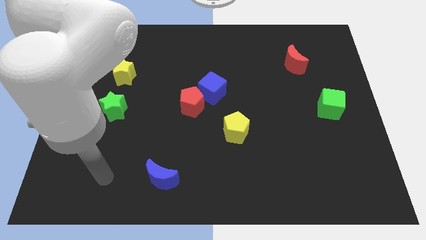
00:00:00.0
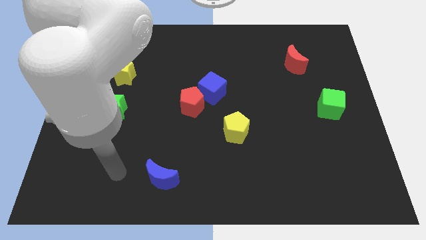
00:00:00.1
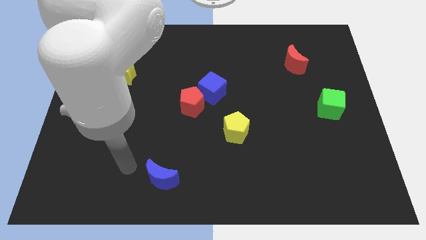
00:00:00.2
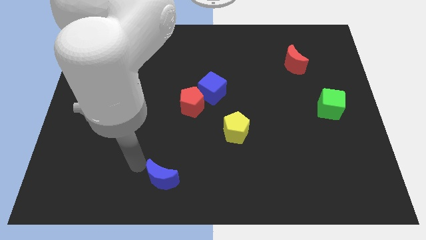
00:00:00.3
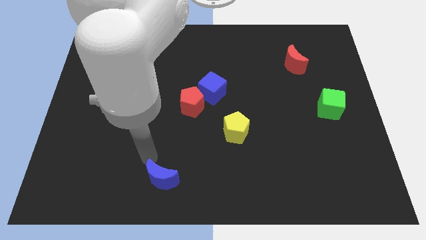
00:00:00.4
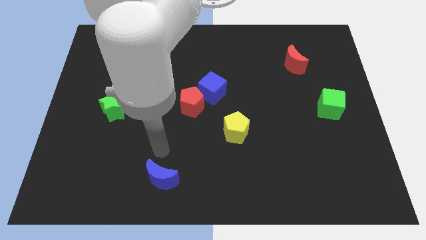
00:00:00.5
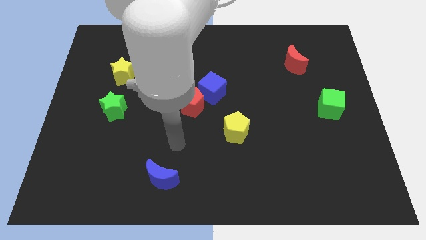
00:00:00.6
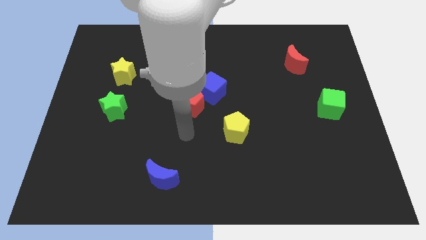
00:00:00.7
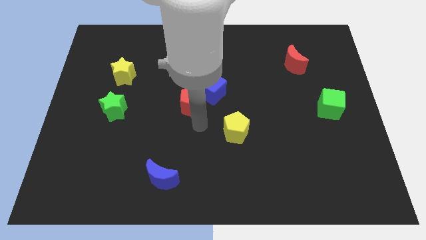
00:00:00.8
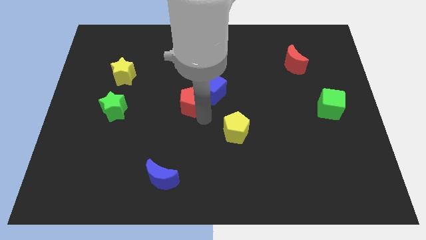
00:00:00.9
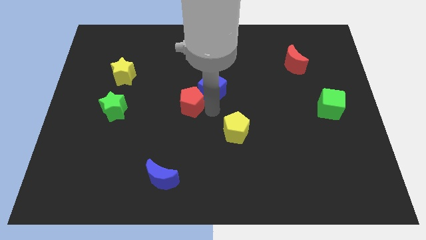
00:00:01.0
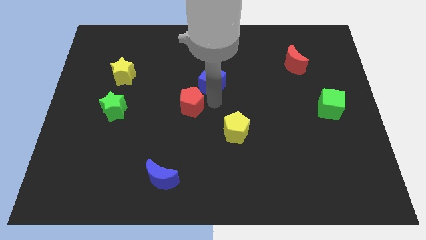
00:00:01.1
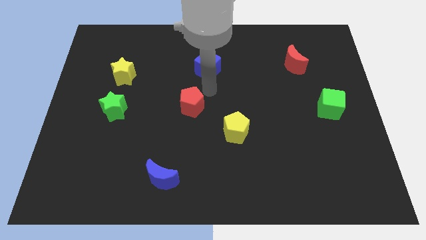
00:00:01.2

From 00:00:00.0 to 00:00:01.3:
move the red pentagon away from the blue cube

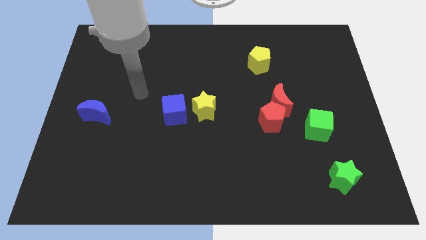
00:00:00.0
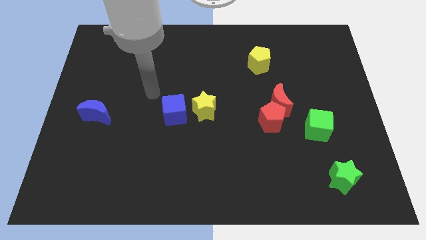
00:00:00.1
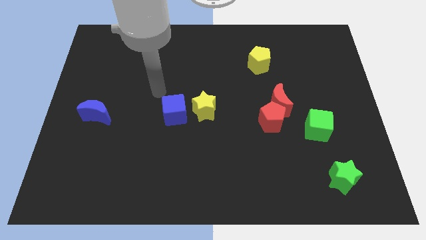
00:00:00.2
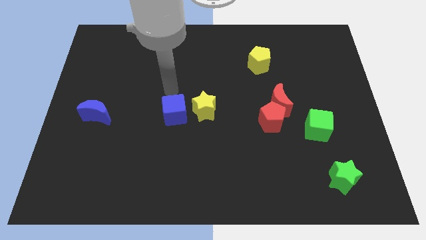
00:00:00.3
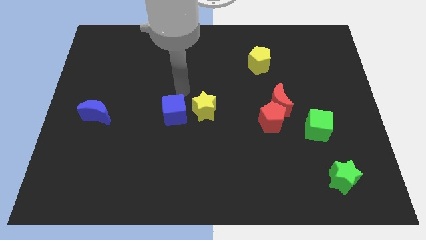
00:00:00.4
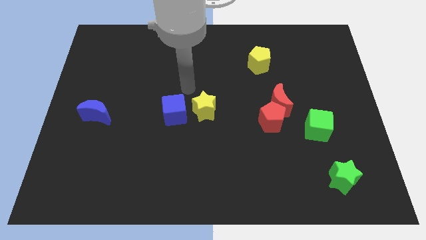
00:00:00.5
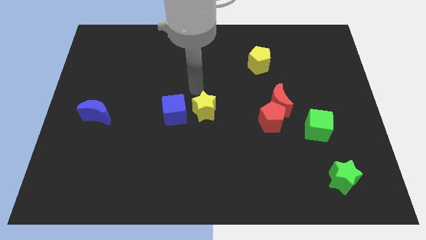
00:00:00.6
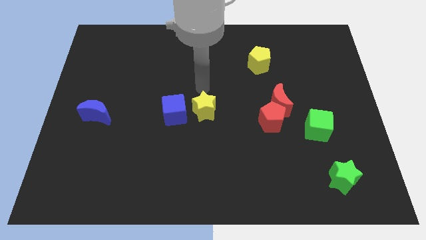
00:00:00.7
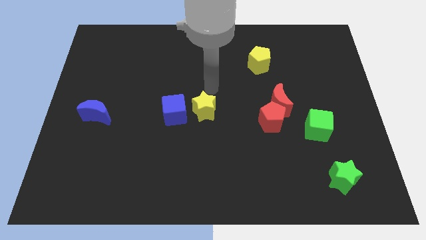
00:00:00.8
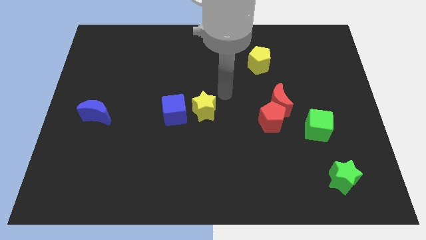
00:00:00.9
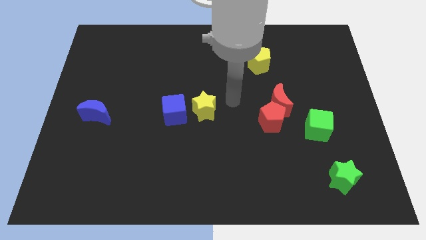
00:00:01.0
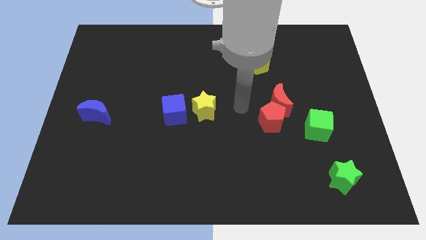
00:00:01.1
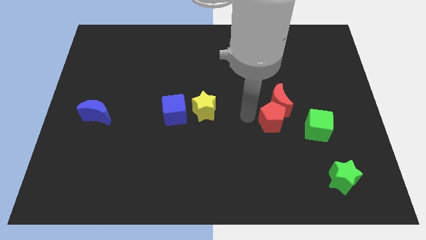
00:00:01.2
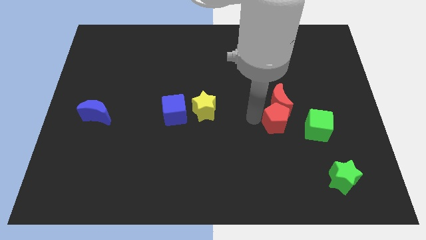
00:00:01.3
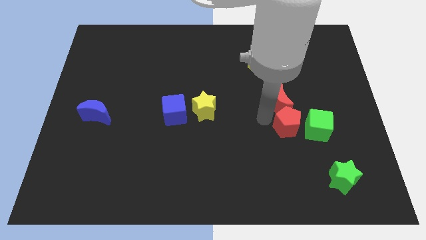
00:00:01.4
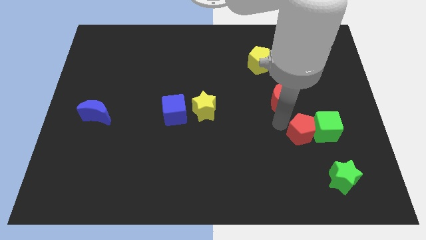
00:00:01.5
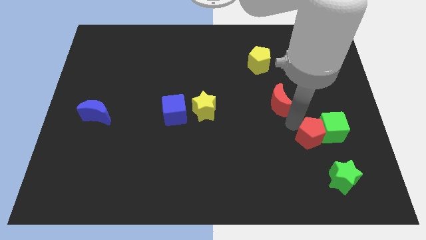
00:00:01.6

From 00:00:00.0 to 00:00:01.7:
pull the red moon apart from the red pentagon

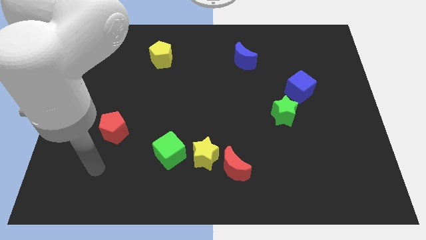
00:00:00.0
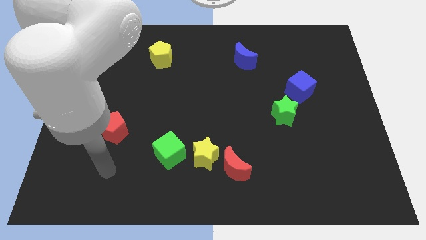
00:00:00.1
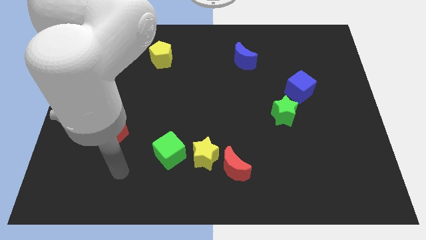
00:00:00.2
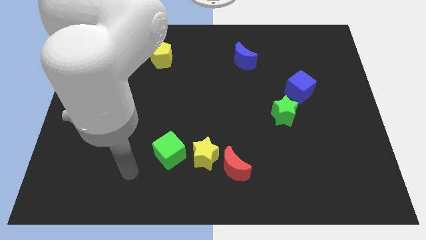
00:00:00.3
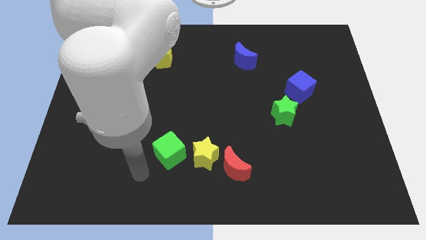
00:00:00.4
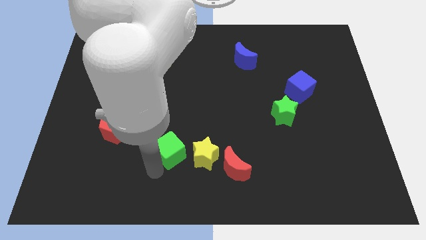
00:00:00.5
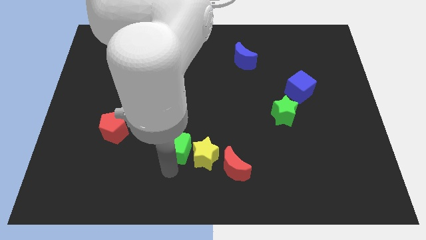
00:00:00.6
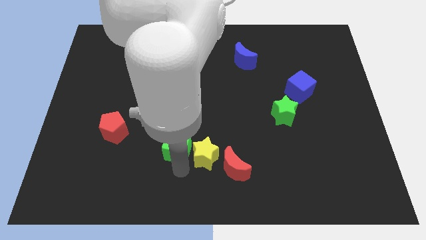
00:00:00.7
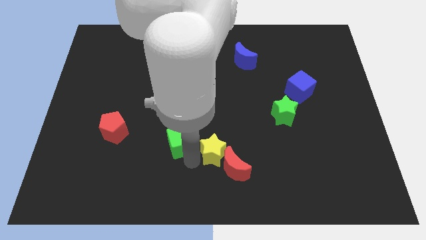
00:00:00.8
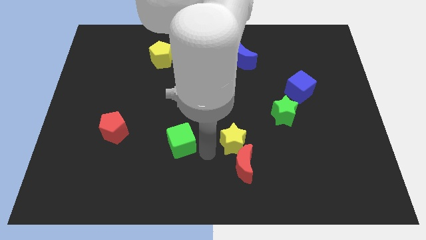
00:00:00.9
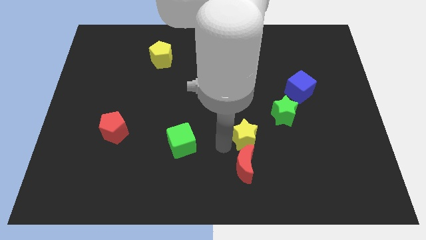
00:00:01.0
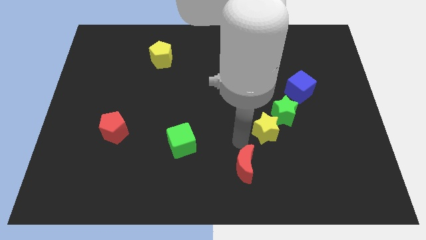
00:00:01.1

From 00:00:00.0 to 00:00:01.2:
pull the red moon apart from the yellow star

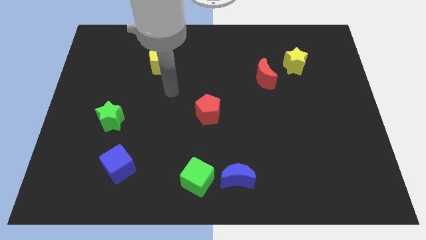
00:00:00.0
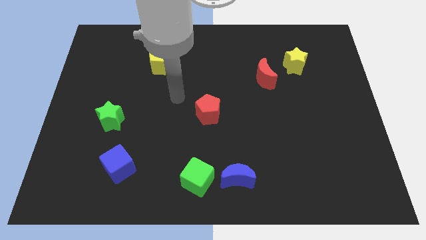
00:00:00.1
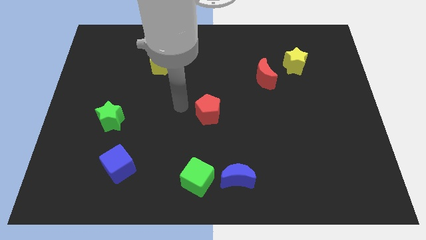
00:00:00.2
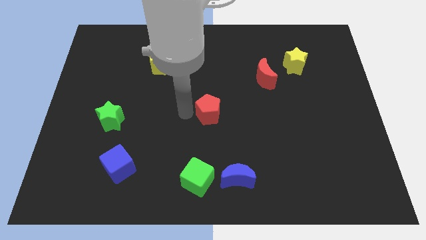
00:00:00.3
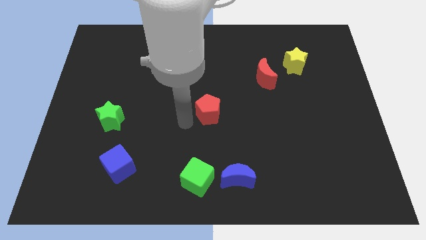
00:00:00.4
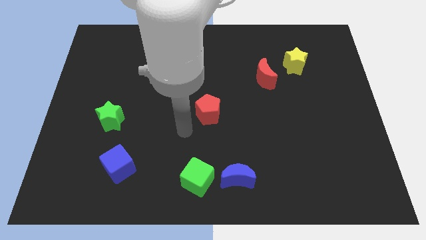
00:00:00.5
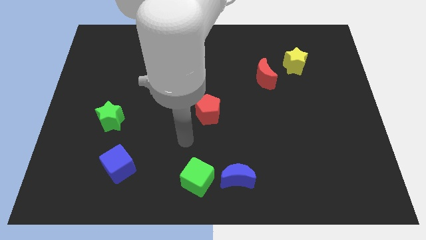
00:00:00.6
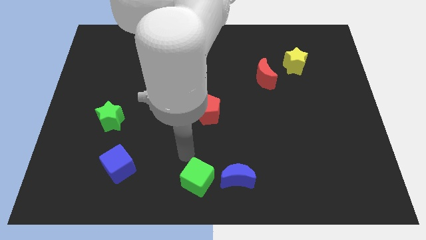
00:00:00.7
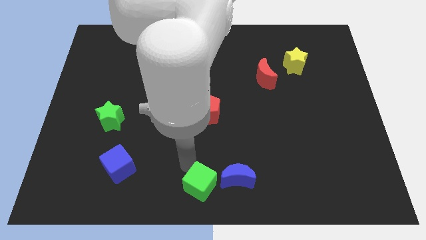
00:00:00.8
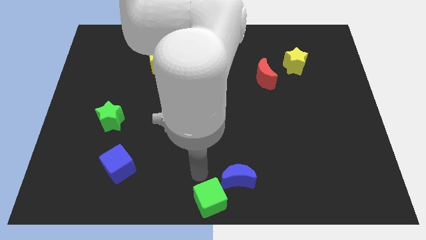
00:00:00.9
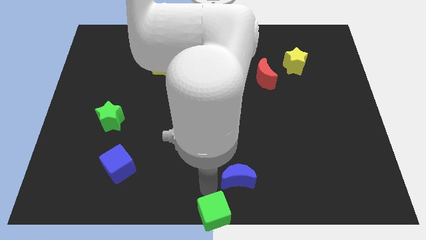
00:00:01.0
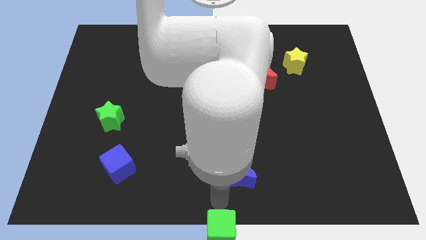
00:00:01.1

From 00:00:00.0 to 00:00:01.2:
move the blue moon away from the green cube

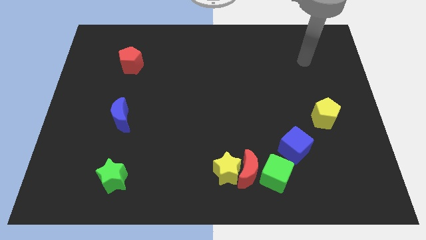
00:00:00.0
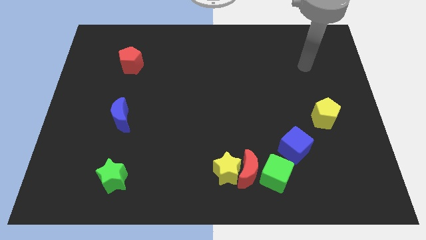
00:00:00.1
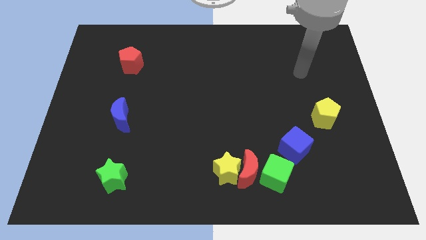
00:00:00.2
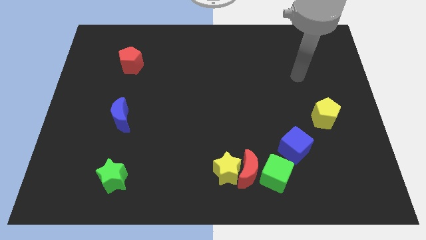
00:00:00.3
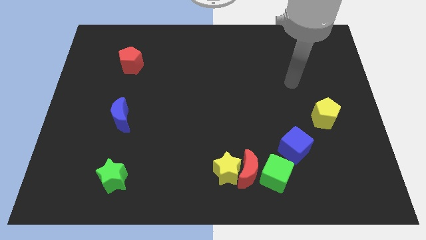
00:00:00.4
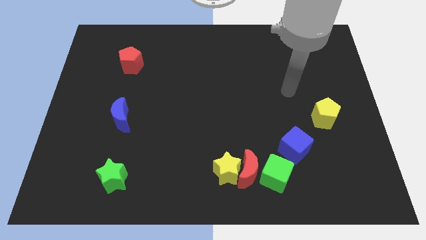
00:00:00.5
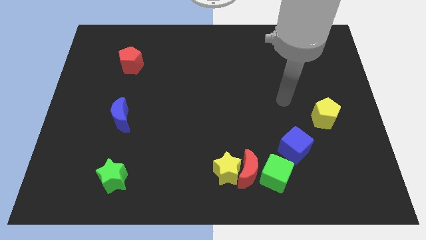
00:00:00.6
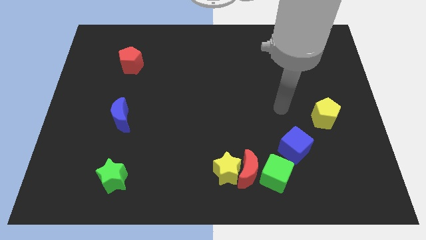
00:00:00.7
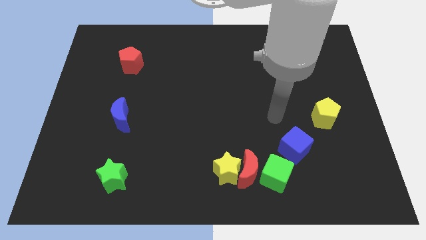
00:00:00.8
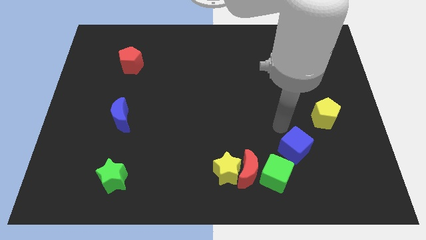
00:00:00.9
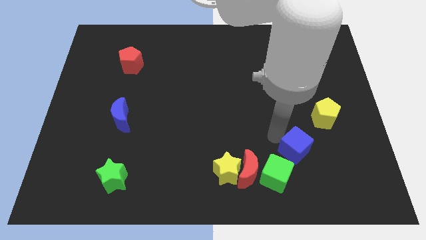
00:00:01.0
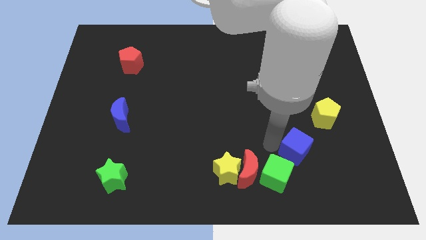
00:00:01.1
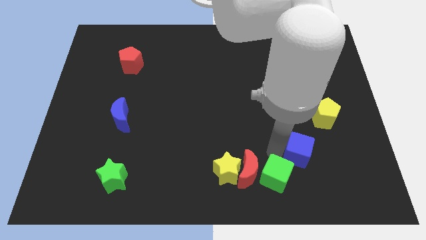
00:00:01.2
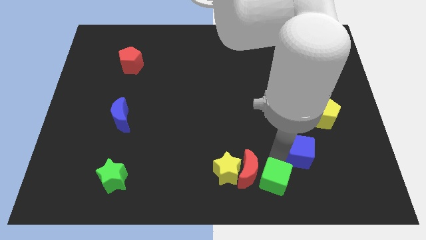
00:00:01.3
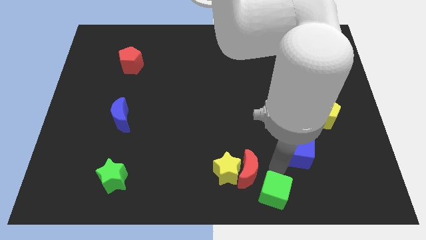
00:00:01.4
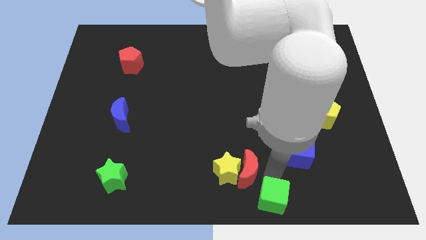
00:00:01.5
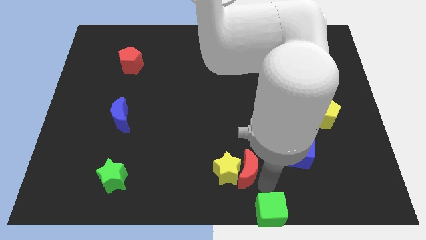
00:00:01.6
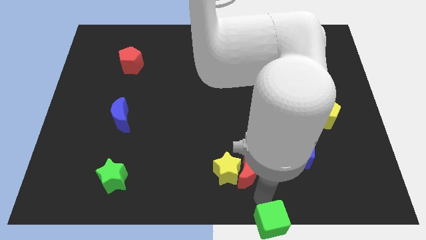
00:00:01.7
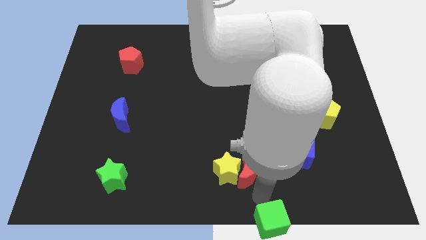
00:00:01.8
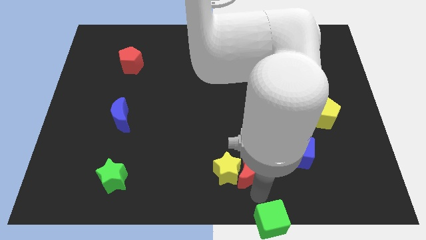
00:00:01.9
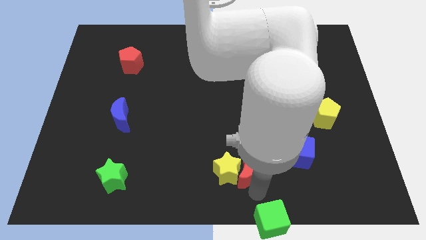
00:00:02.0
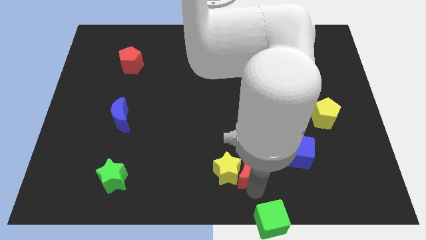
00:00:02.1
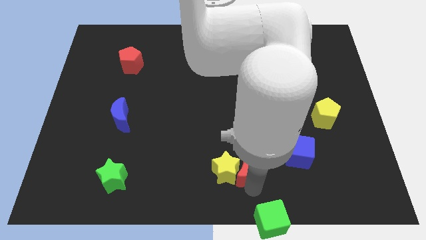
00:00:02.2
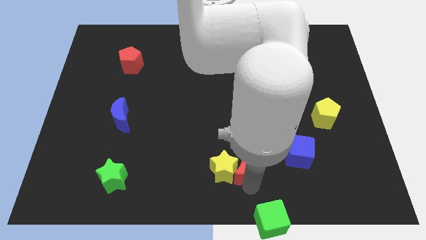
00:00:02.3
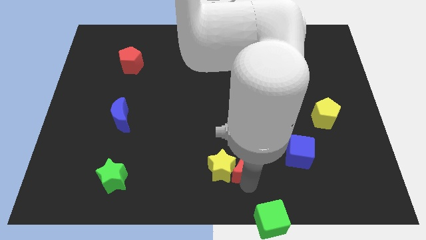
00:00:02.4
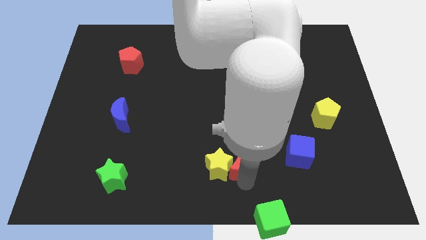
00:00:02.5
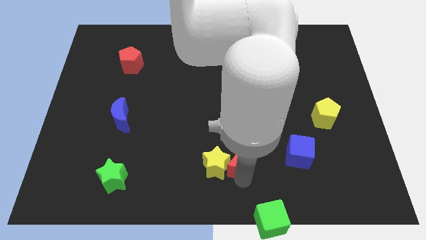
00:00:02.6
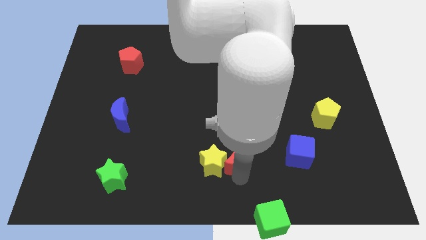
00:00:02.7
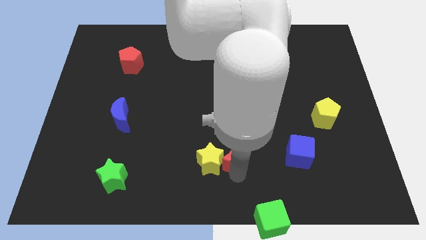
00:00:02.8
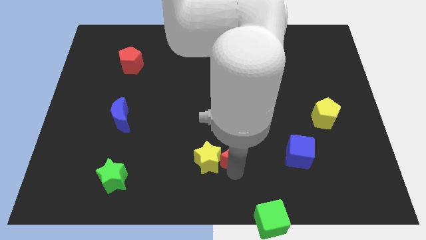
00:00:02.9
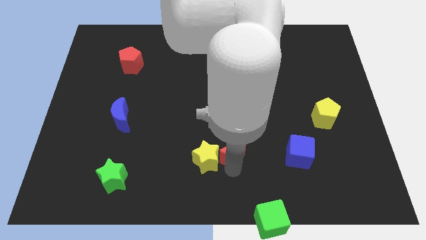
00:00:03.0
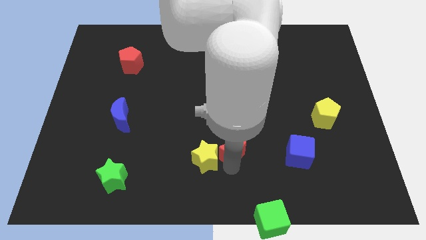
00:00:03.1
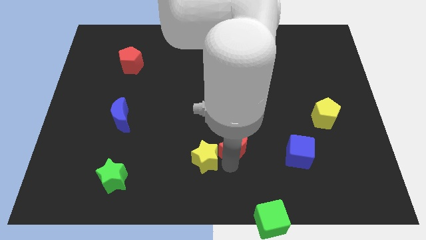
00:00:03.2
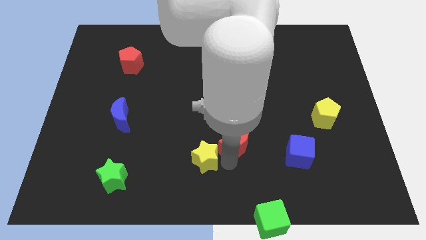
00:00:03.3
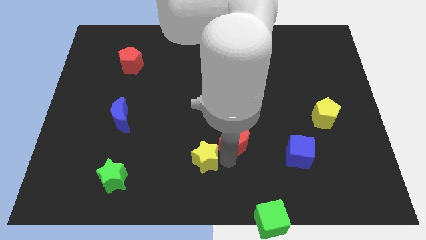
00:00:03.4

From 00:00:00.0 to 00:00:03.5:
pull the red moon apart from the yellow star and green cube

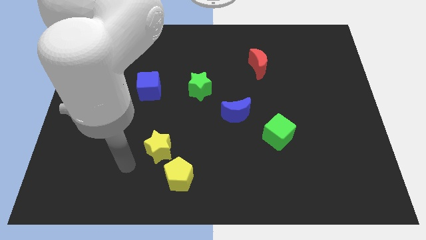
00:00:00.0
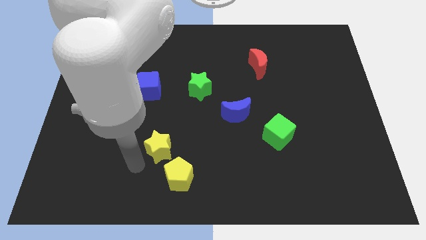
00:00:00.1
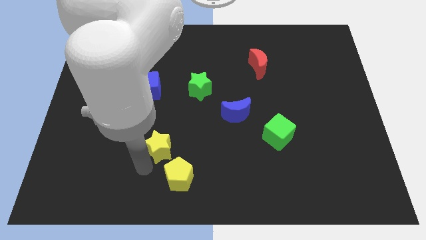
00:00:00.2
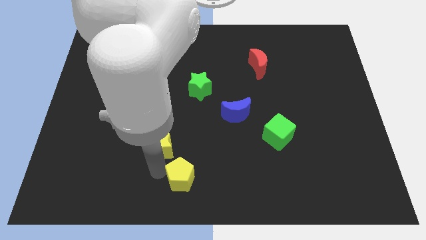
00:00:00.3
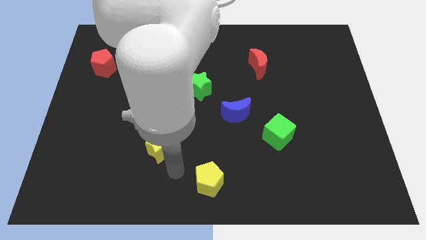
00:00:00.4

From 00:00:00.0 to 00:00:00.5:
pull the yellow star apart from the yellow pentagon
